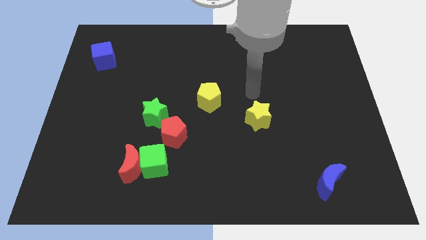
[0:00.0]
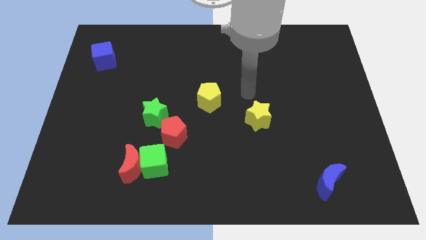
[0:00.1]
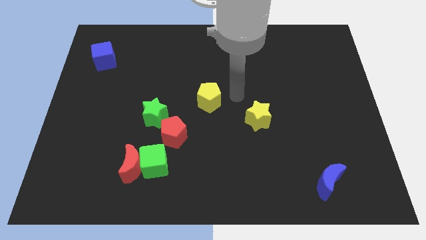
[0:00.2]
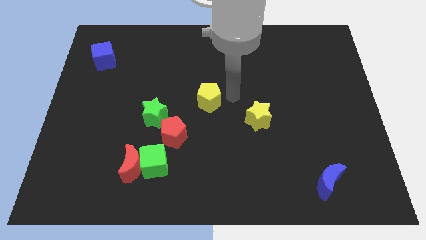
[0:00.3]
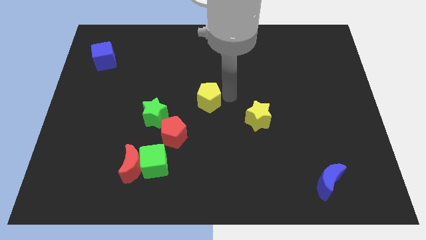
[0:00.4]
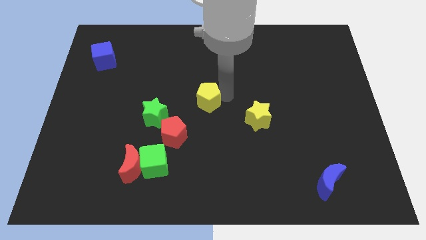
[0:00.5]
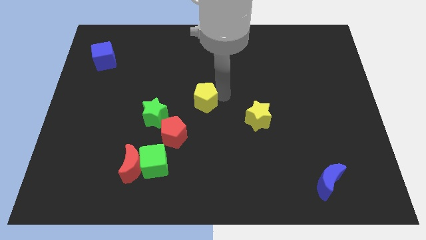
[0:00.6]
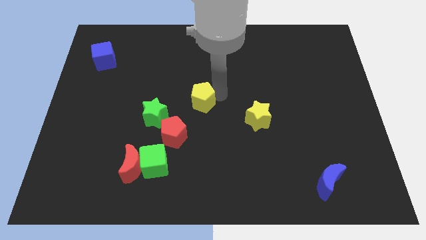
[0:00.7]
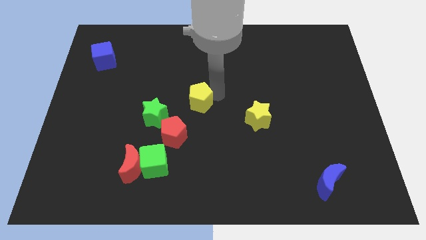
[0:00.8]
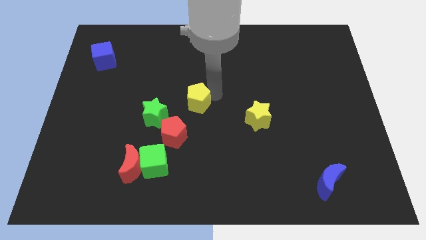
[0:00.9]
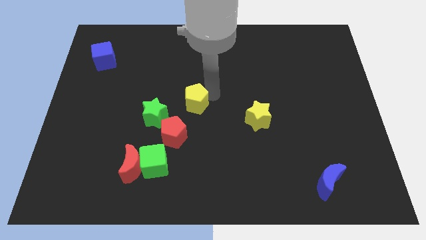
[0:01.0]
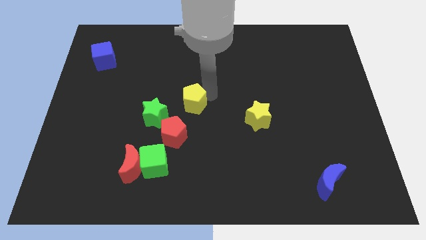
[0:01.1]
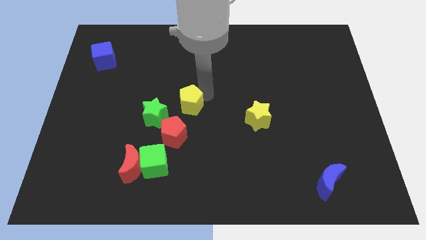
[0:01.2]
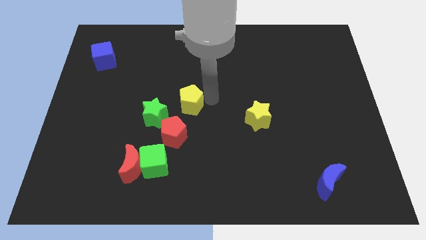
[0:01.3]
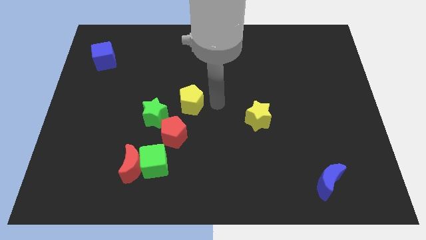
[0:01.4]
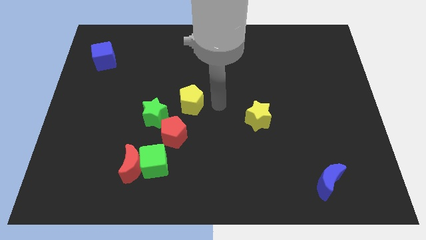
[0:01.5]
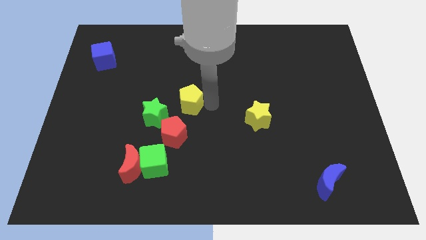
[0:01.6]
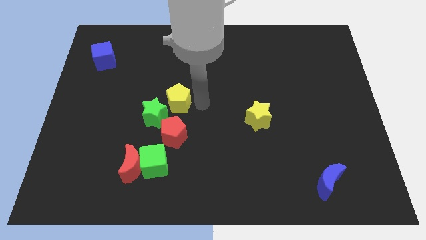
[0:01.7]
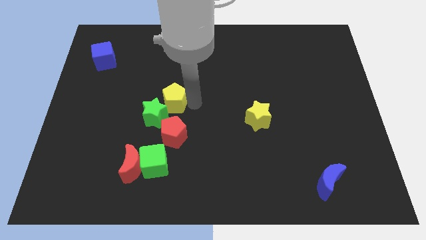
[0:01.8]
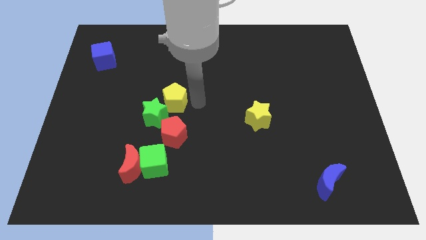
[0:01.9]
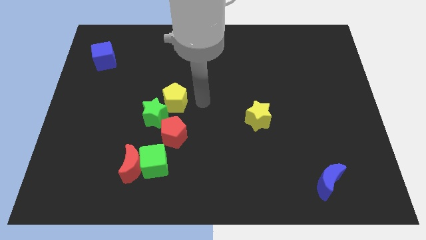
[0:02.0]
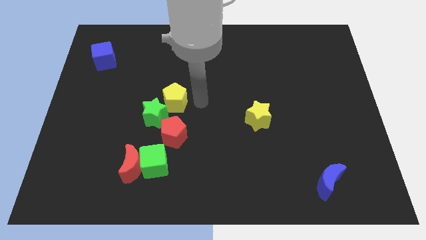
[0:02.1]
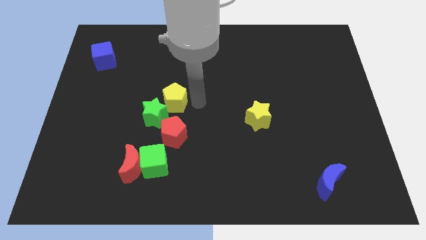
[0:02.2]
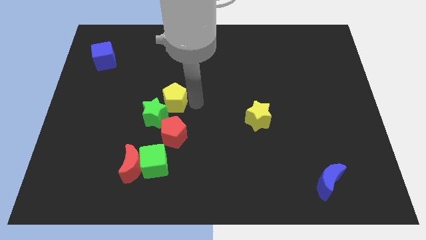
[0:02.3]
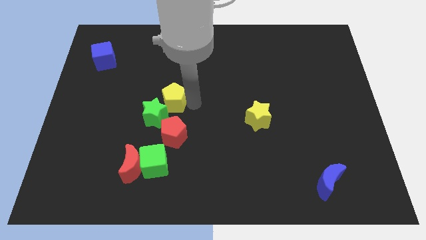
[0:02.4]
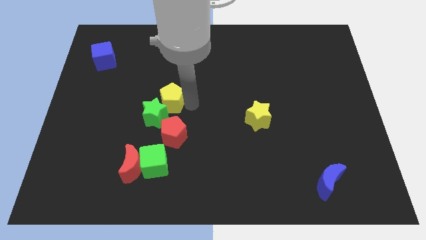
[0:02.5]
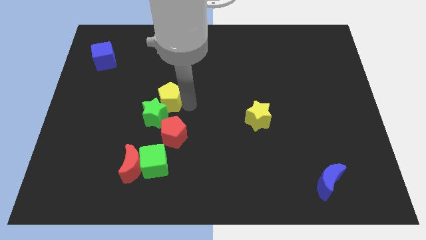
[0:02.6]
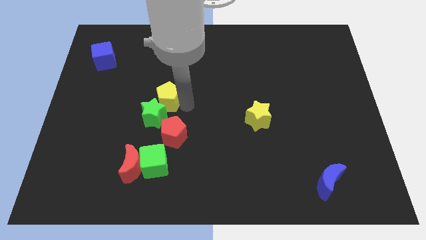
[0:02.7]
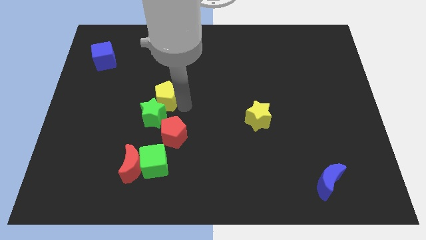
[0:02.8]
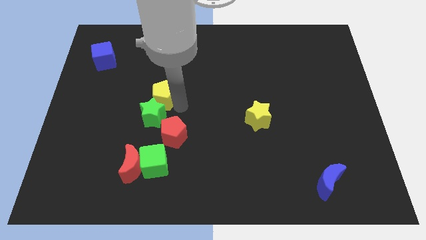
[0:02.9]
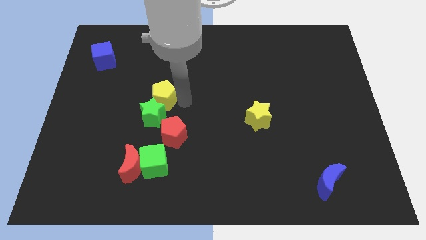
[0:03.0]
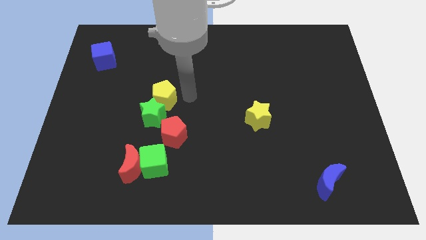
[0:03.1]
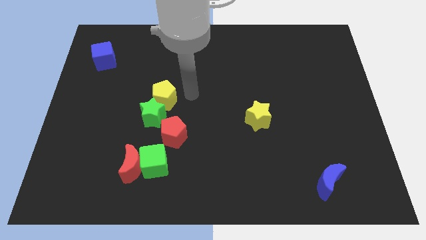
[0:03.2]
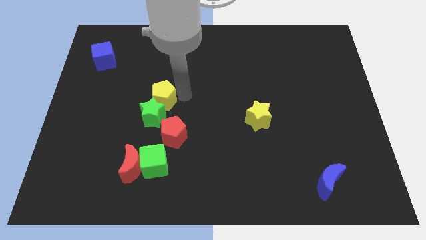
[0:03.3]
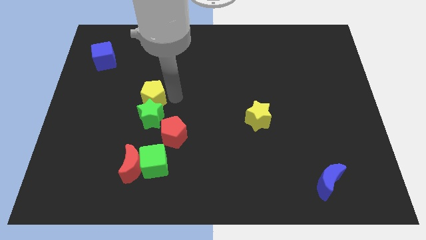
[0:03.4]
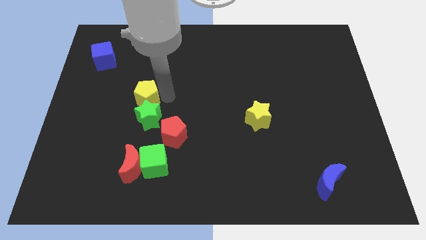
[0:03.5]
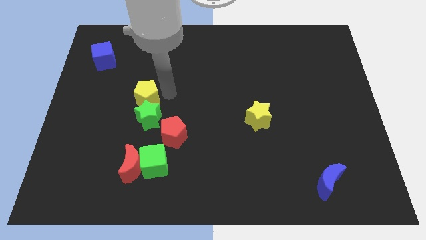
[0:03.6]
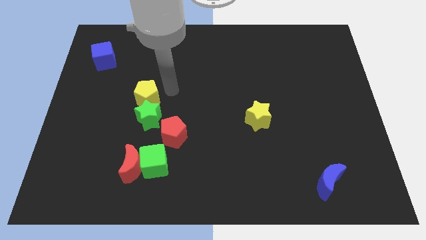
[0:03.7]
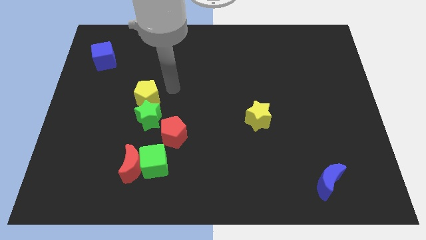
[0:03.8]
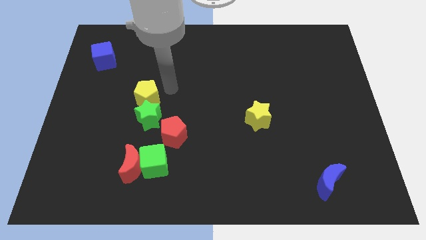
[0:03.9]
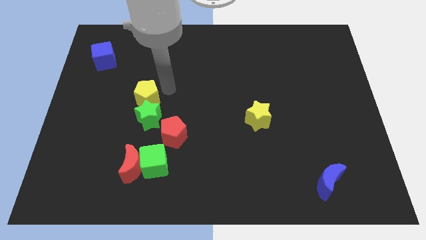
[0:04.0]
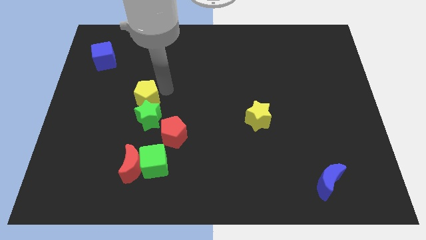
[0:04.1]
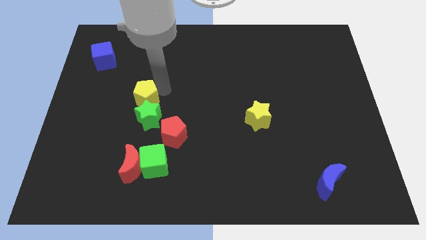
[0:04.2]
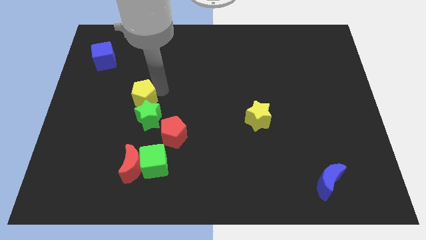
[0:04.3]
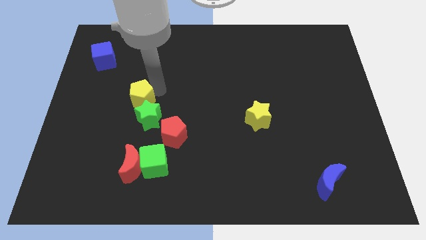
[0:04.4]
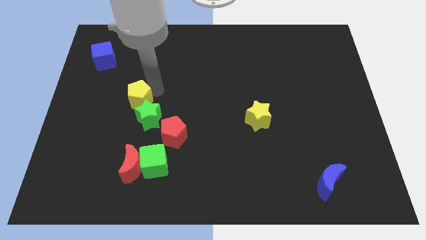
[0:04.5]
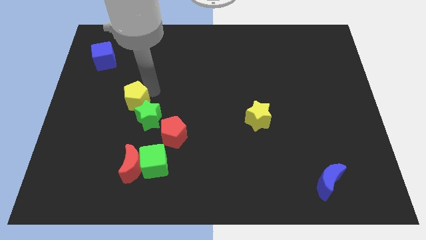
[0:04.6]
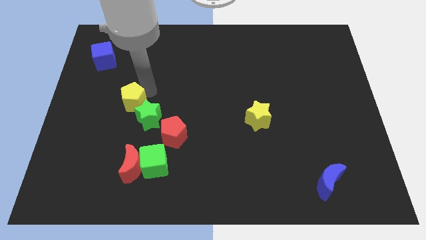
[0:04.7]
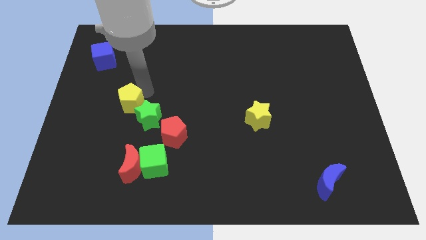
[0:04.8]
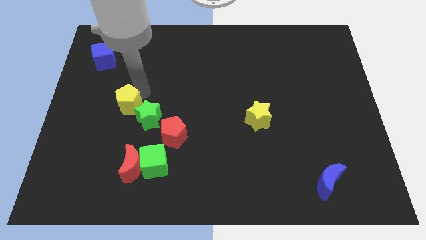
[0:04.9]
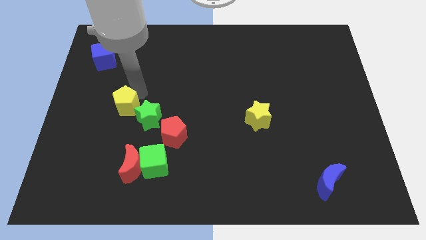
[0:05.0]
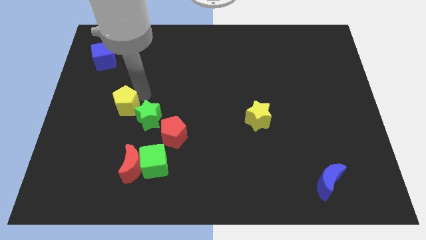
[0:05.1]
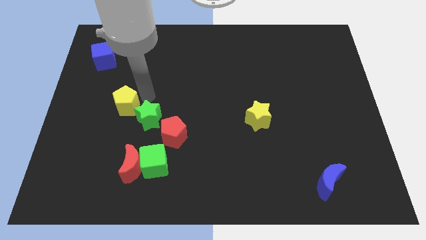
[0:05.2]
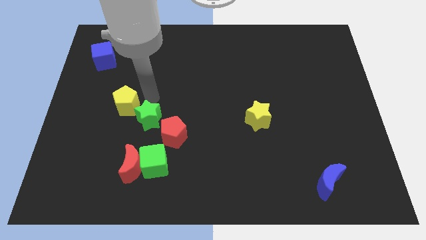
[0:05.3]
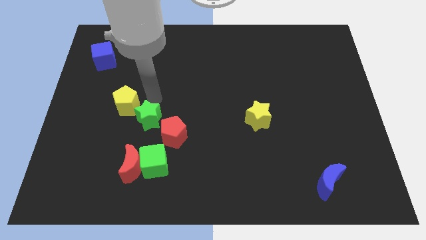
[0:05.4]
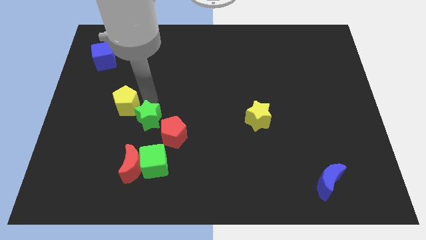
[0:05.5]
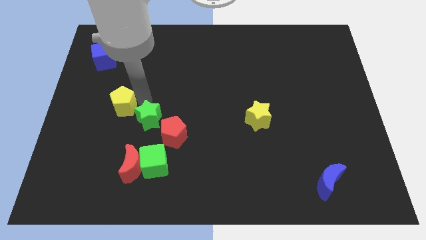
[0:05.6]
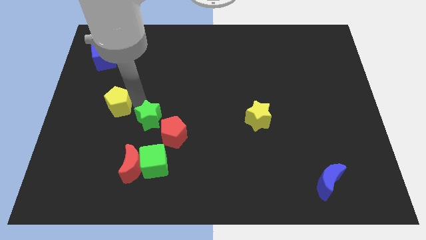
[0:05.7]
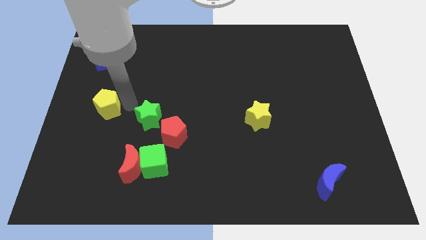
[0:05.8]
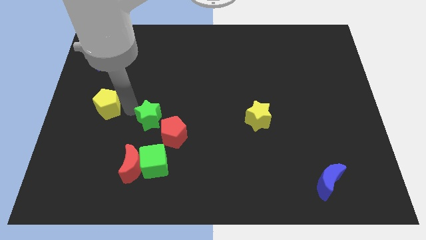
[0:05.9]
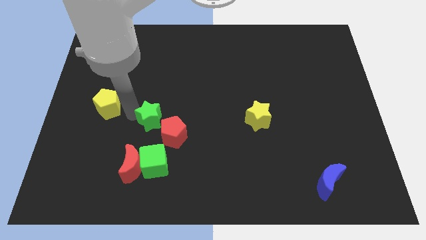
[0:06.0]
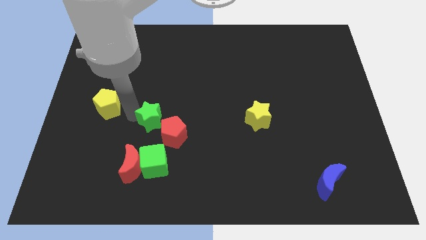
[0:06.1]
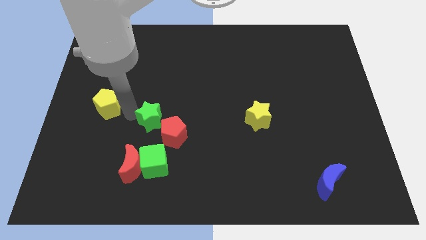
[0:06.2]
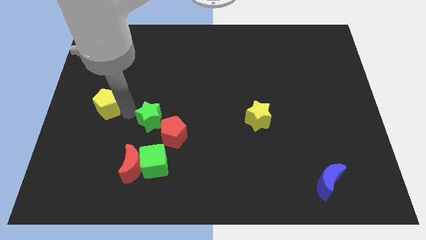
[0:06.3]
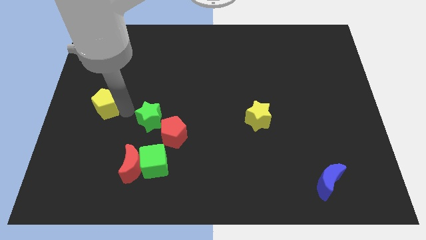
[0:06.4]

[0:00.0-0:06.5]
put the yellow pentagon to the left side of the board
